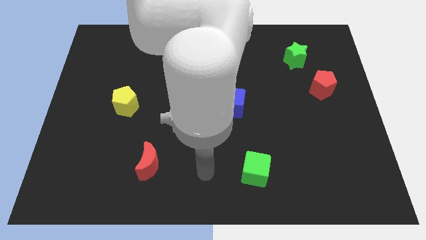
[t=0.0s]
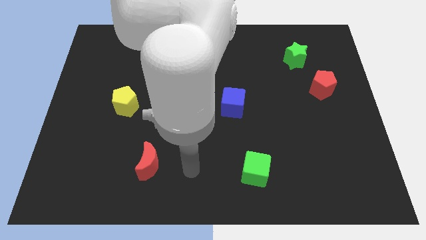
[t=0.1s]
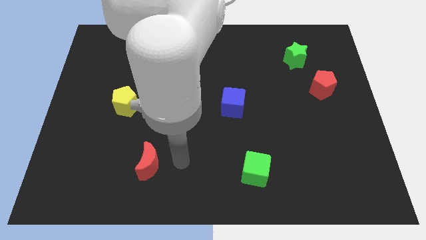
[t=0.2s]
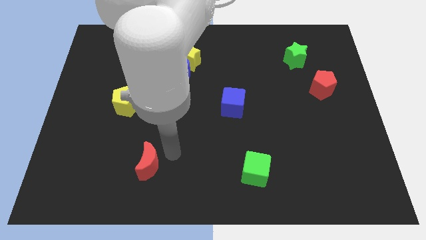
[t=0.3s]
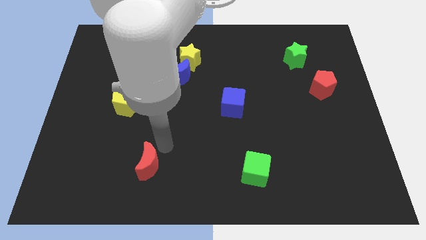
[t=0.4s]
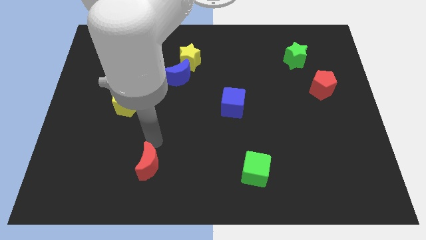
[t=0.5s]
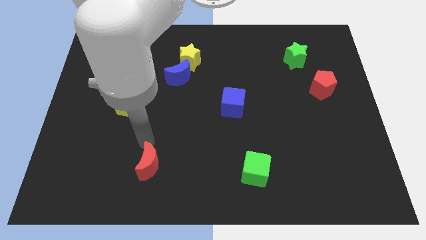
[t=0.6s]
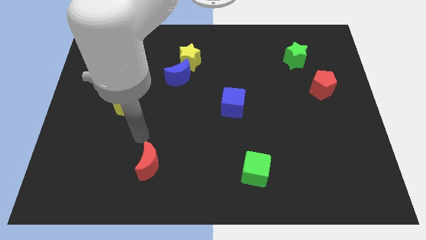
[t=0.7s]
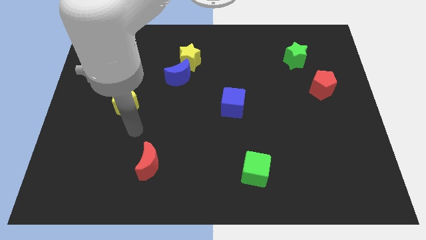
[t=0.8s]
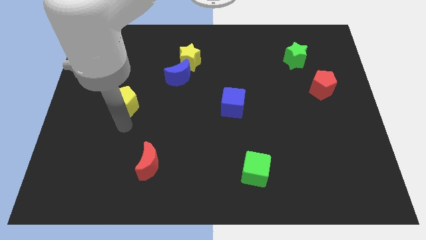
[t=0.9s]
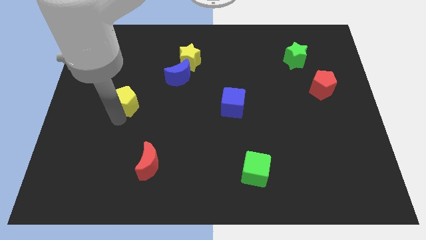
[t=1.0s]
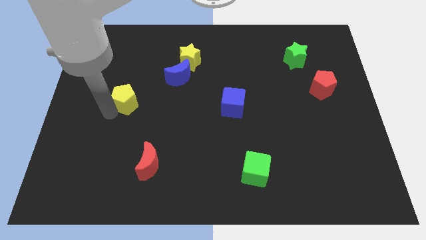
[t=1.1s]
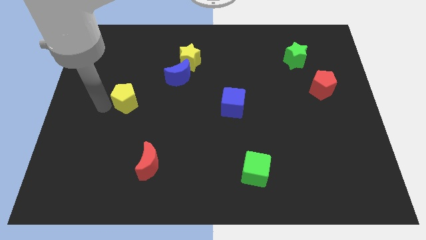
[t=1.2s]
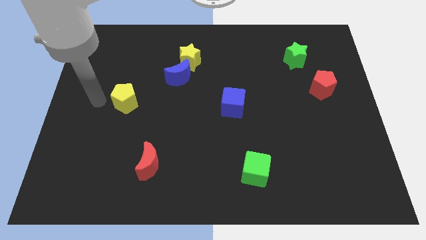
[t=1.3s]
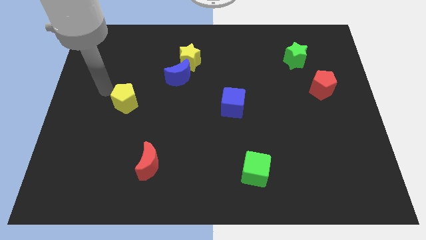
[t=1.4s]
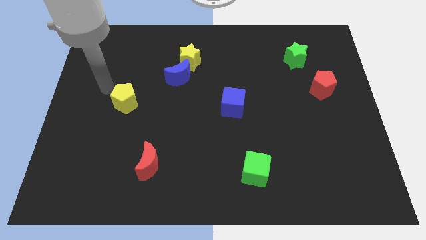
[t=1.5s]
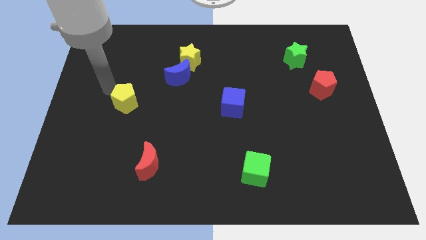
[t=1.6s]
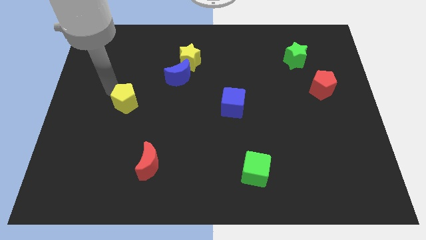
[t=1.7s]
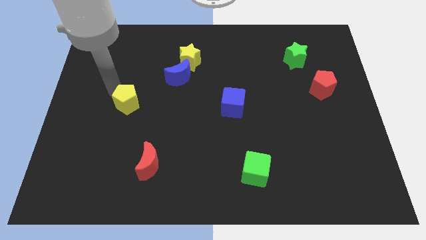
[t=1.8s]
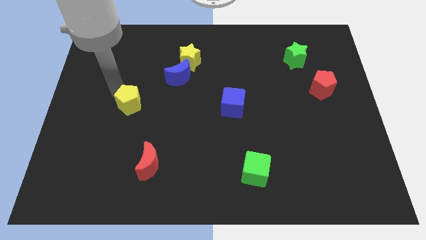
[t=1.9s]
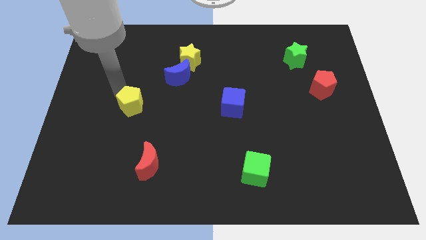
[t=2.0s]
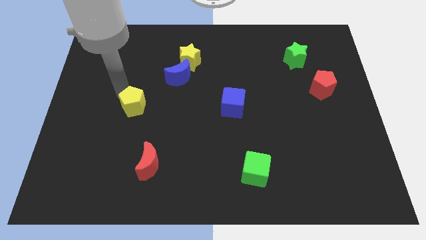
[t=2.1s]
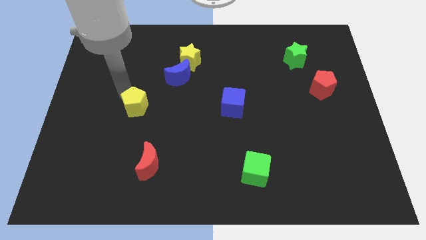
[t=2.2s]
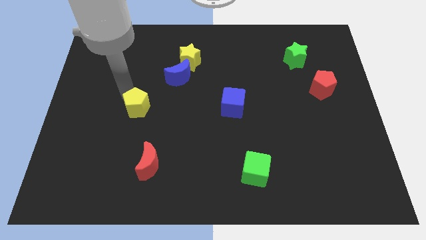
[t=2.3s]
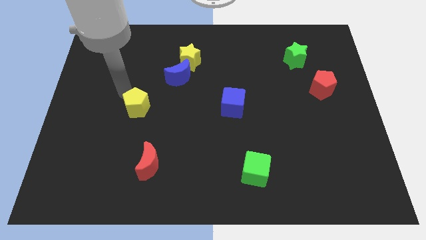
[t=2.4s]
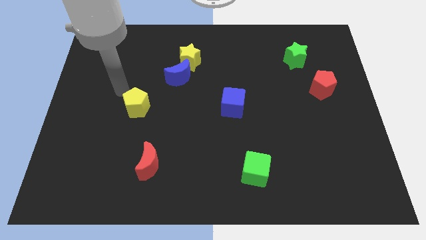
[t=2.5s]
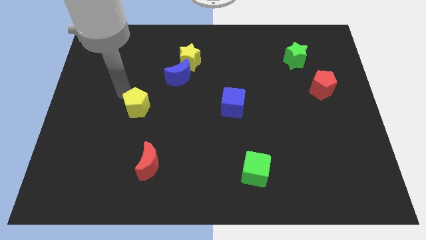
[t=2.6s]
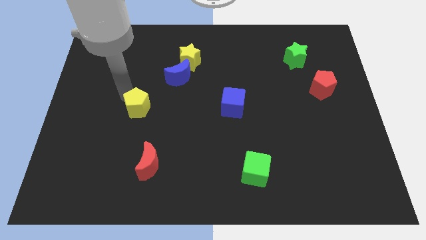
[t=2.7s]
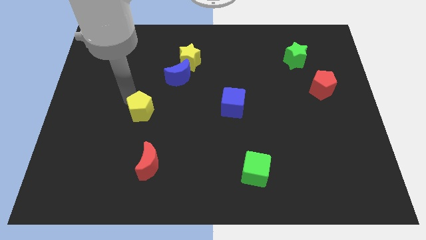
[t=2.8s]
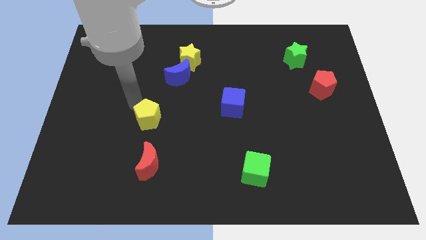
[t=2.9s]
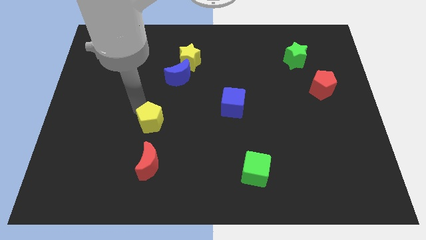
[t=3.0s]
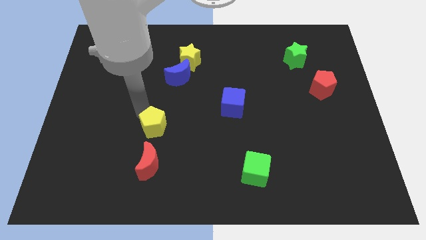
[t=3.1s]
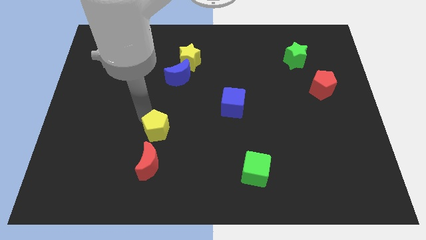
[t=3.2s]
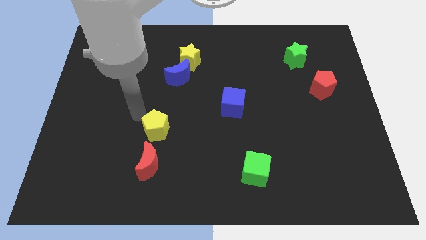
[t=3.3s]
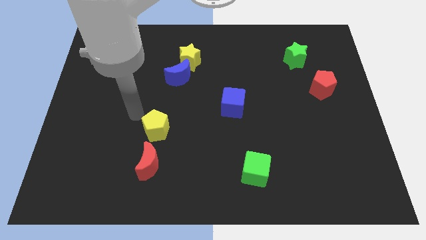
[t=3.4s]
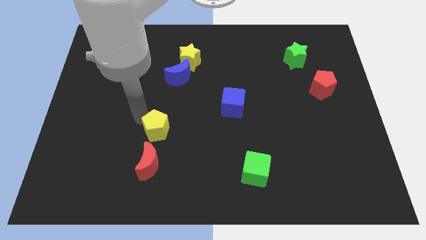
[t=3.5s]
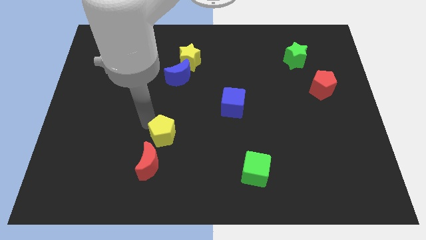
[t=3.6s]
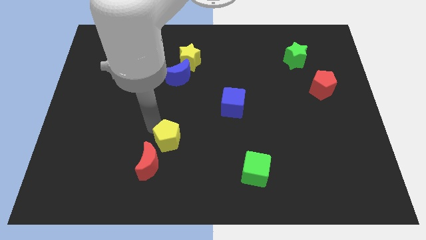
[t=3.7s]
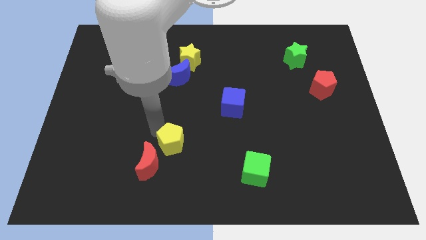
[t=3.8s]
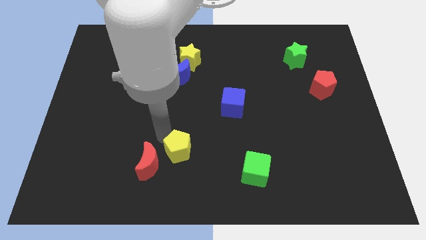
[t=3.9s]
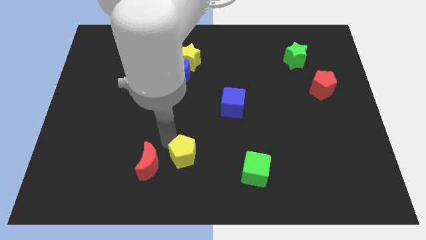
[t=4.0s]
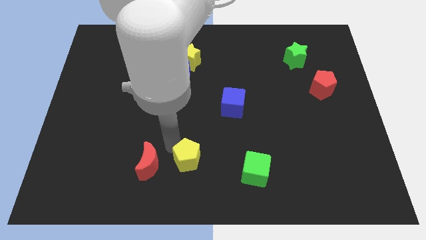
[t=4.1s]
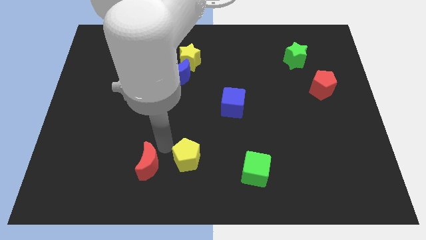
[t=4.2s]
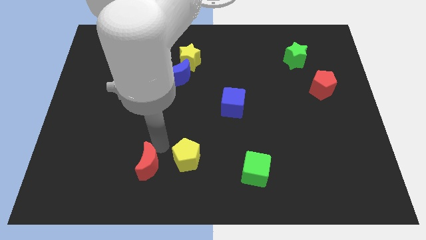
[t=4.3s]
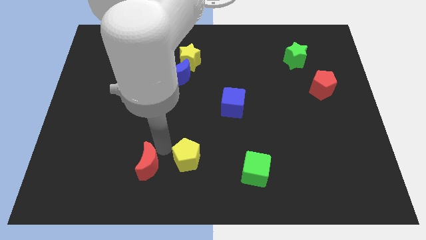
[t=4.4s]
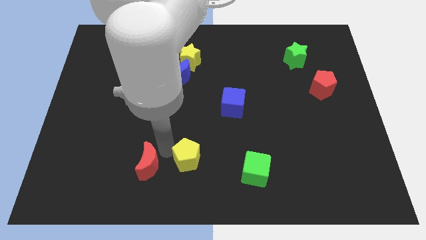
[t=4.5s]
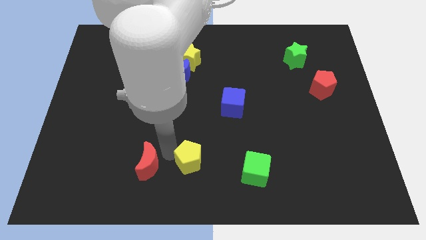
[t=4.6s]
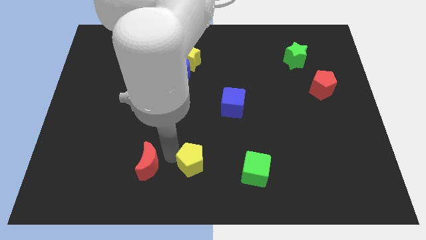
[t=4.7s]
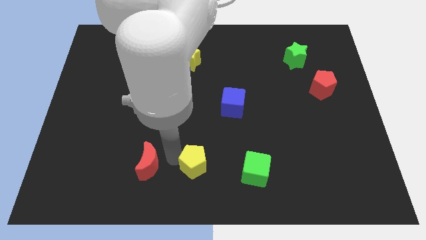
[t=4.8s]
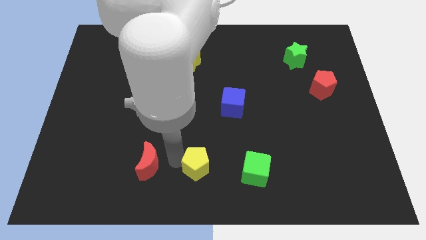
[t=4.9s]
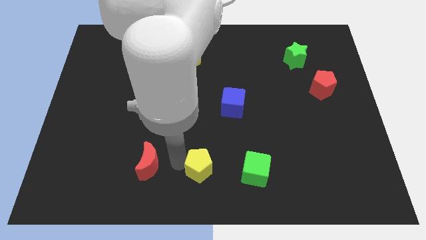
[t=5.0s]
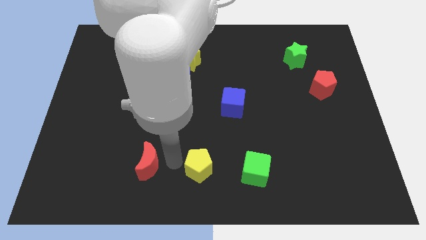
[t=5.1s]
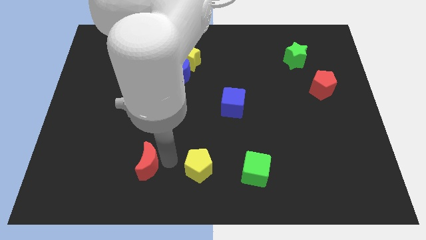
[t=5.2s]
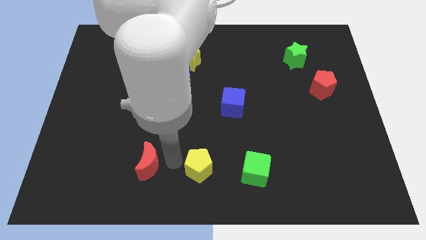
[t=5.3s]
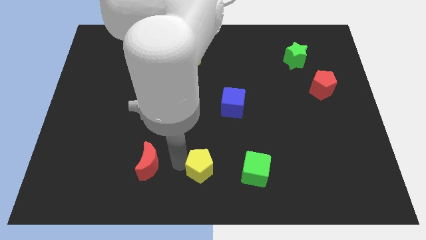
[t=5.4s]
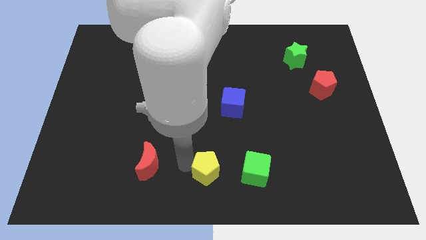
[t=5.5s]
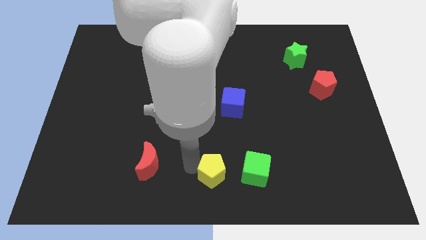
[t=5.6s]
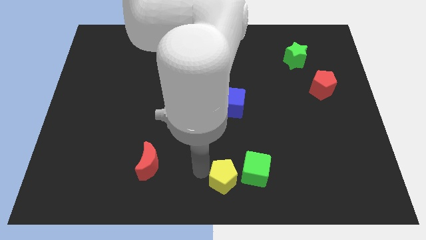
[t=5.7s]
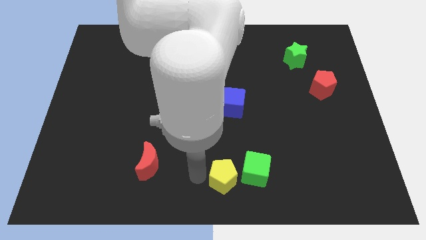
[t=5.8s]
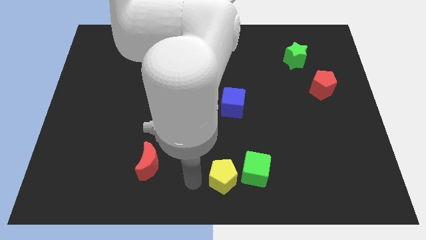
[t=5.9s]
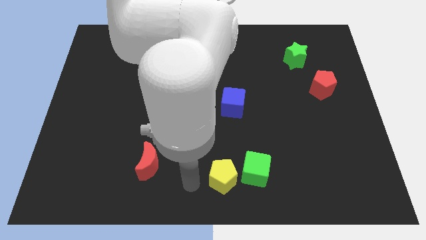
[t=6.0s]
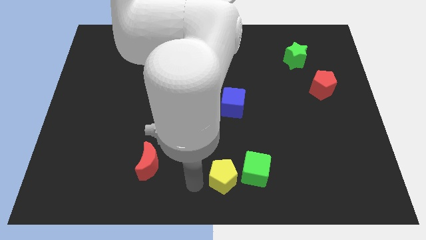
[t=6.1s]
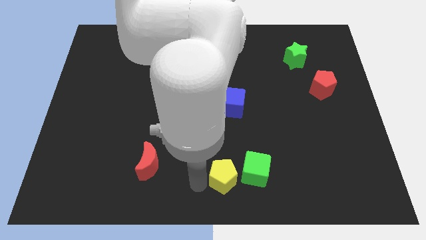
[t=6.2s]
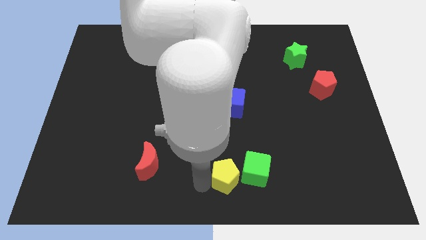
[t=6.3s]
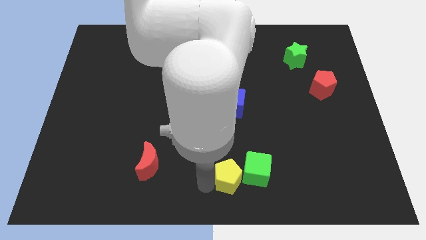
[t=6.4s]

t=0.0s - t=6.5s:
slide the yellow pentagon next to the green cube
